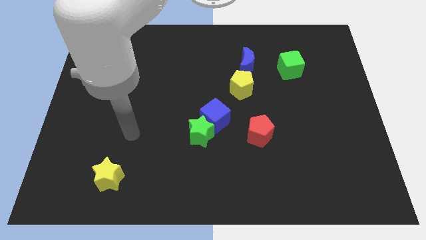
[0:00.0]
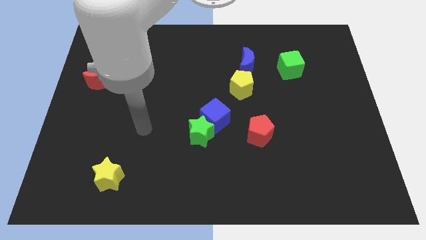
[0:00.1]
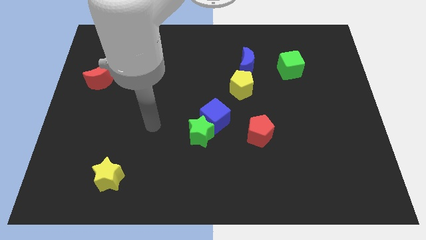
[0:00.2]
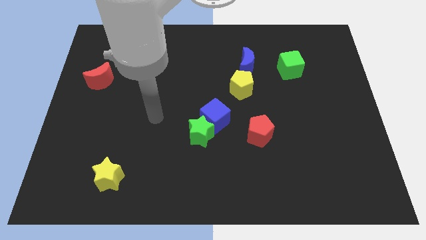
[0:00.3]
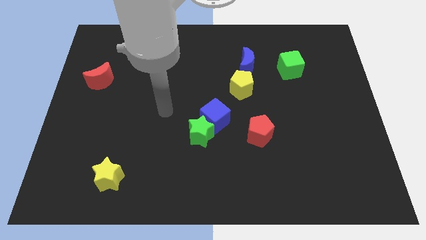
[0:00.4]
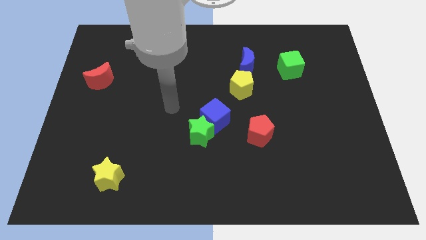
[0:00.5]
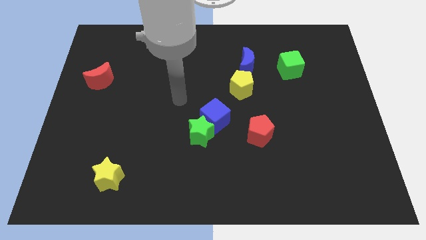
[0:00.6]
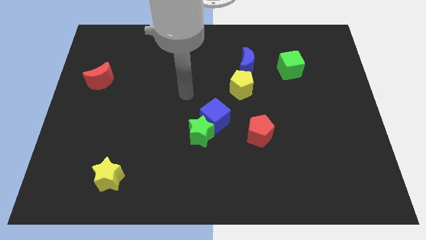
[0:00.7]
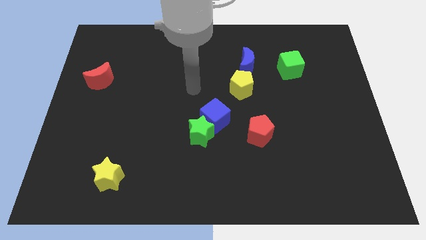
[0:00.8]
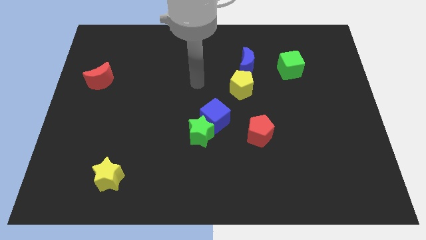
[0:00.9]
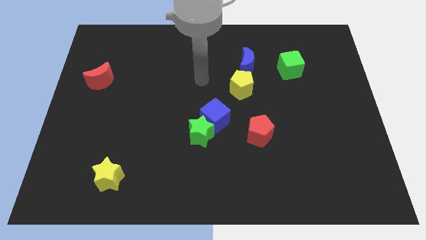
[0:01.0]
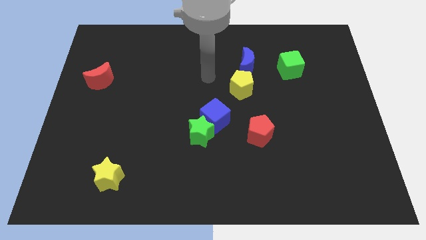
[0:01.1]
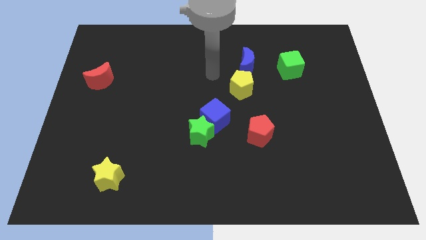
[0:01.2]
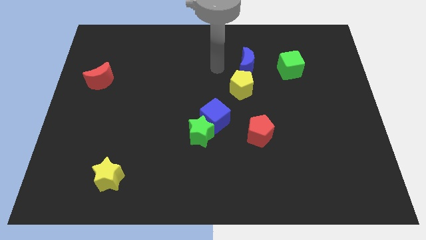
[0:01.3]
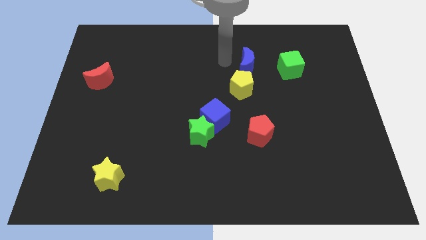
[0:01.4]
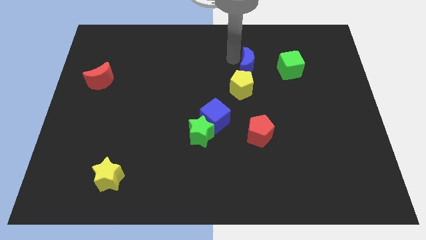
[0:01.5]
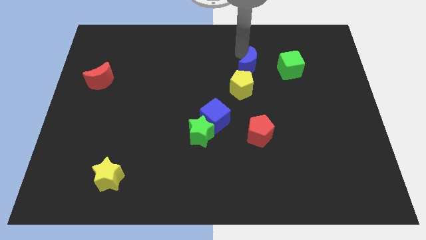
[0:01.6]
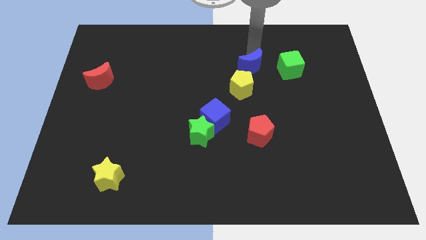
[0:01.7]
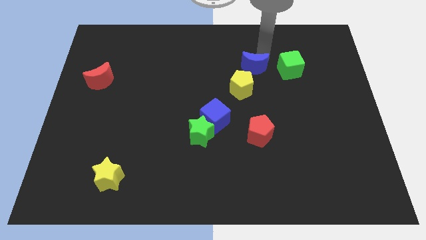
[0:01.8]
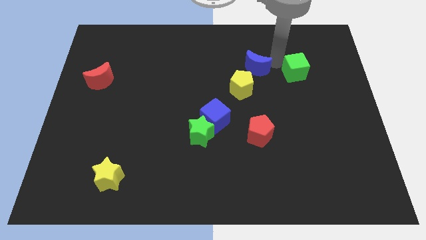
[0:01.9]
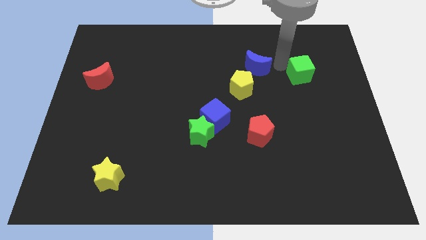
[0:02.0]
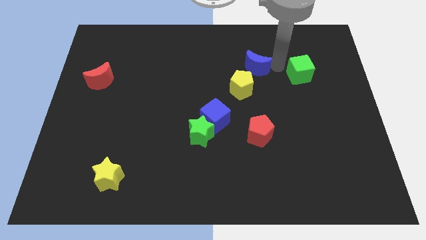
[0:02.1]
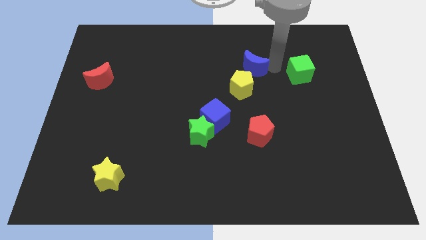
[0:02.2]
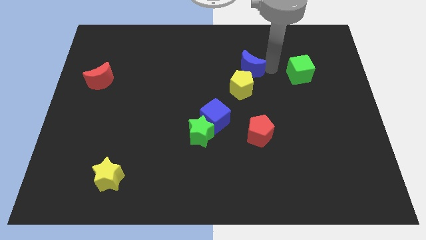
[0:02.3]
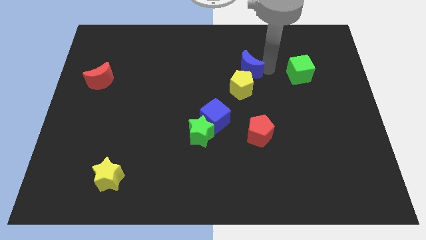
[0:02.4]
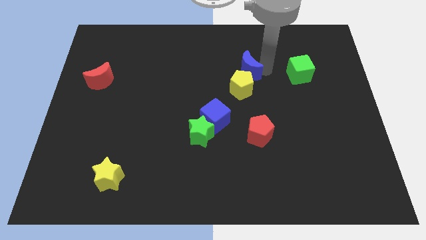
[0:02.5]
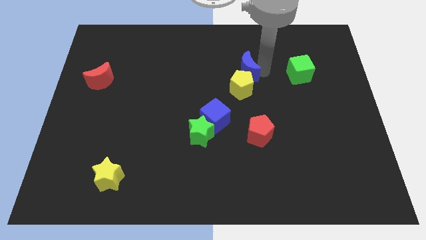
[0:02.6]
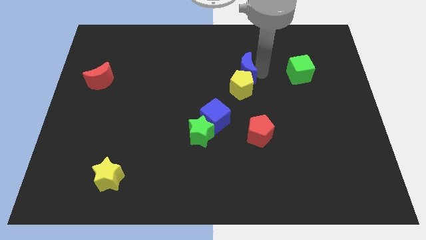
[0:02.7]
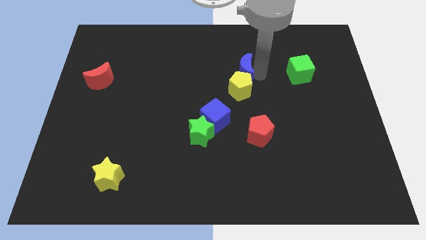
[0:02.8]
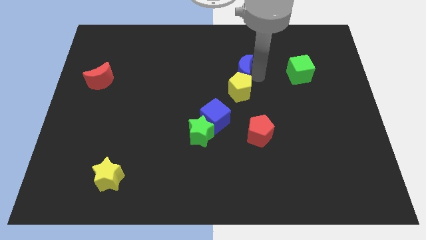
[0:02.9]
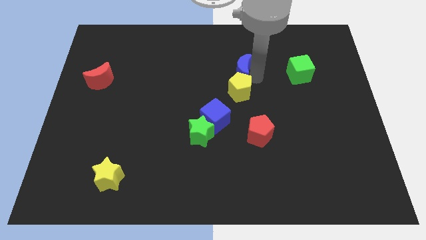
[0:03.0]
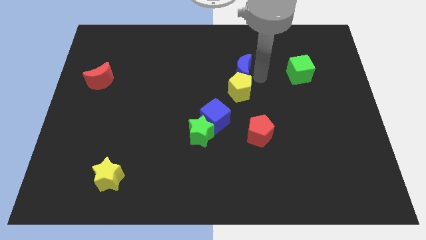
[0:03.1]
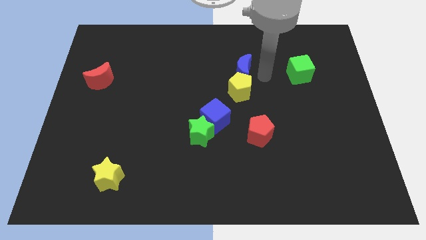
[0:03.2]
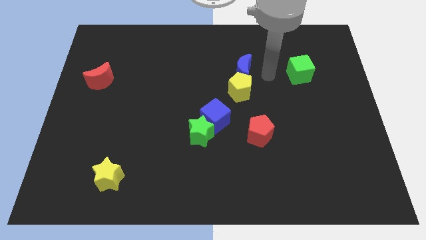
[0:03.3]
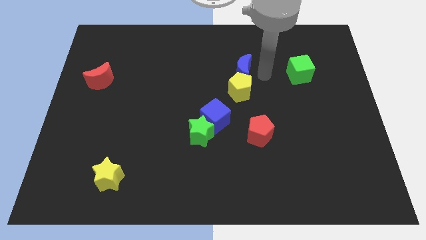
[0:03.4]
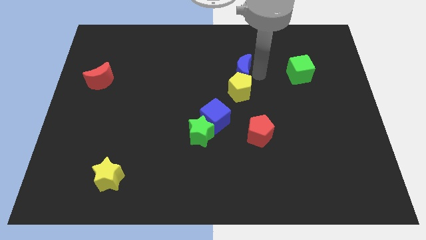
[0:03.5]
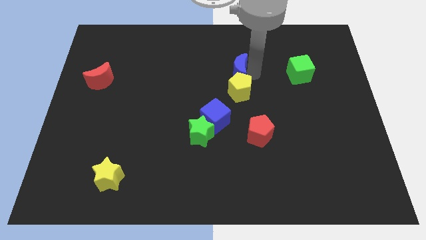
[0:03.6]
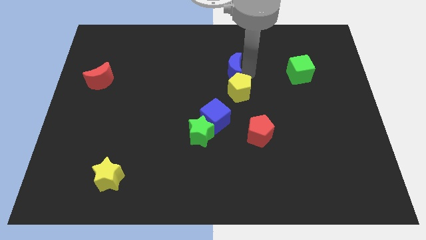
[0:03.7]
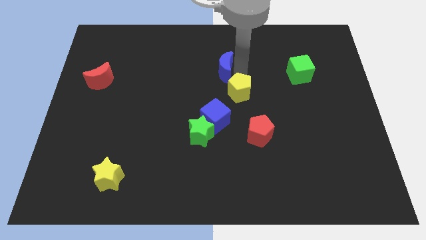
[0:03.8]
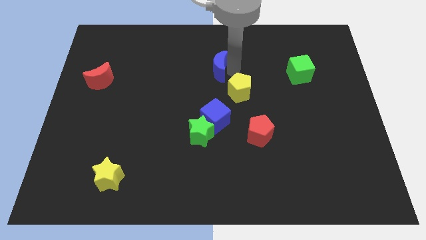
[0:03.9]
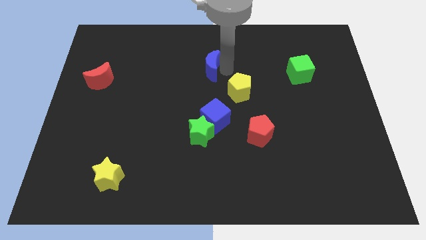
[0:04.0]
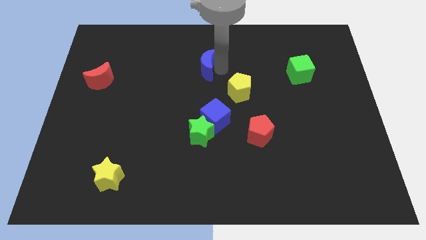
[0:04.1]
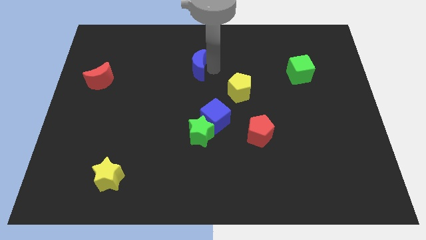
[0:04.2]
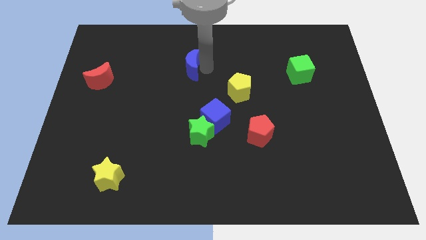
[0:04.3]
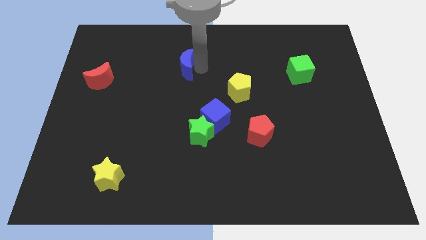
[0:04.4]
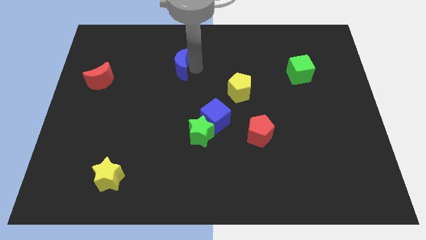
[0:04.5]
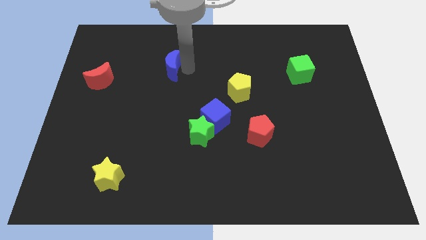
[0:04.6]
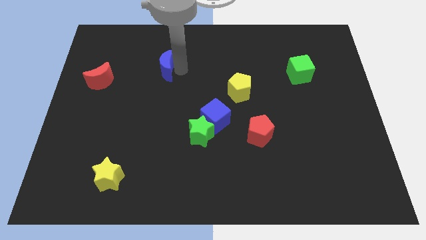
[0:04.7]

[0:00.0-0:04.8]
move the blue moon left

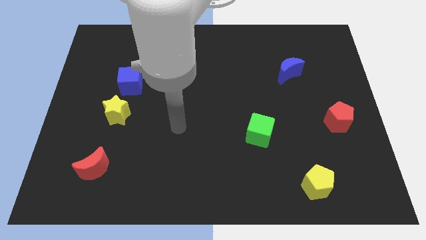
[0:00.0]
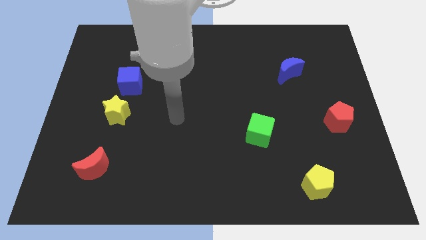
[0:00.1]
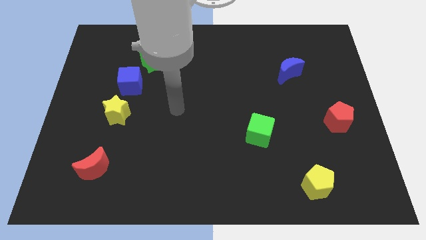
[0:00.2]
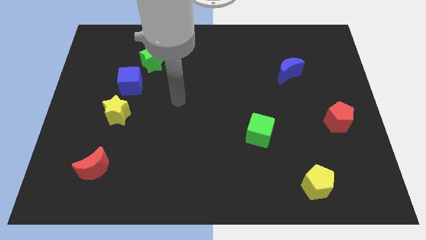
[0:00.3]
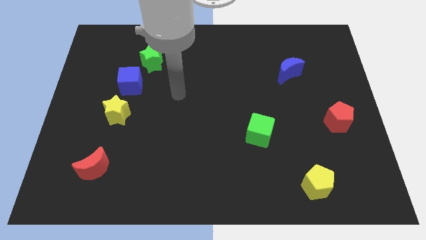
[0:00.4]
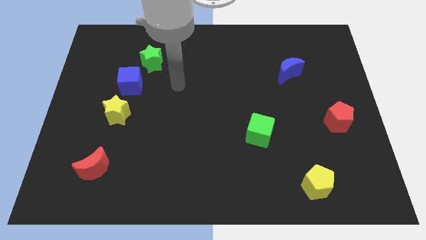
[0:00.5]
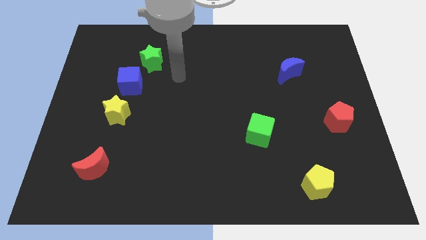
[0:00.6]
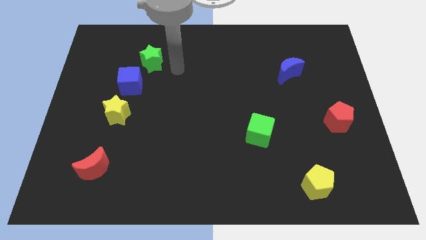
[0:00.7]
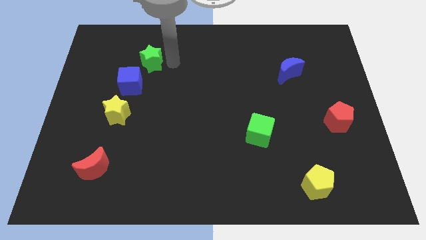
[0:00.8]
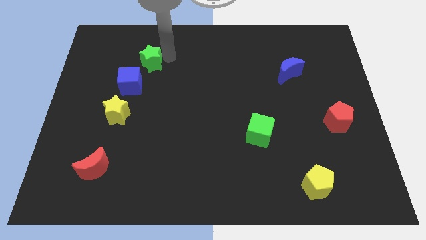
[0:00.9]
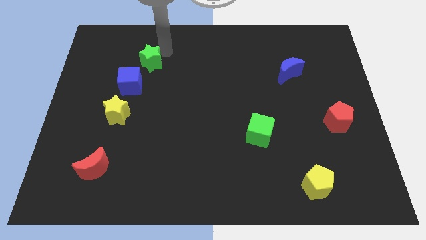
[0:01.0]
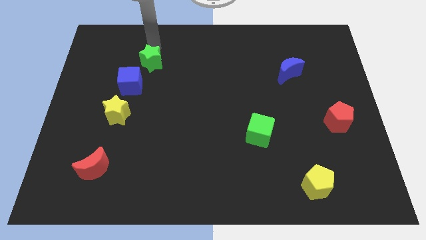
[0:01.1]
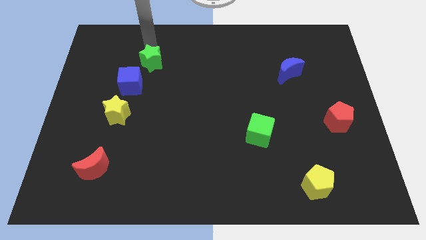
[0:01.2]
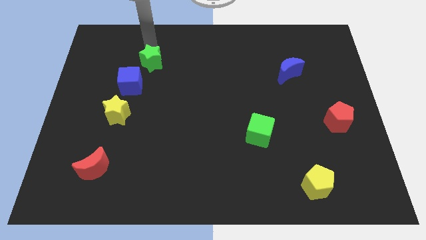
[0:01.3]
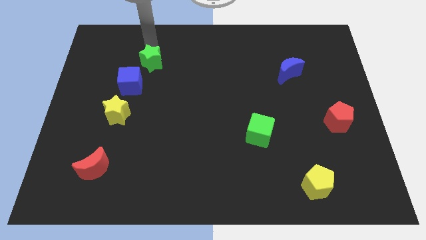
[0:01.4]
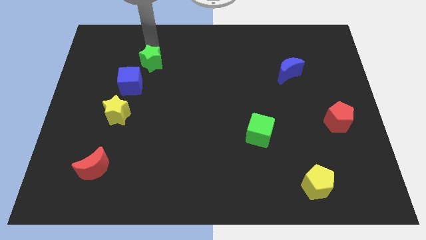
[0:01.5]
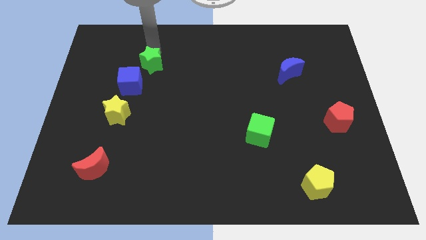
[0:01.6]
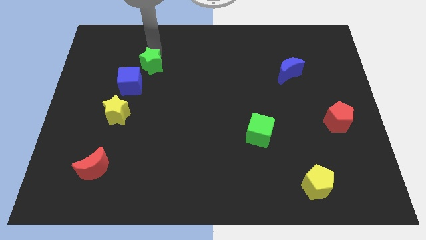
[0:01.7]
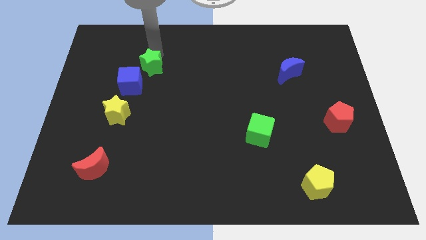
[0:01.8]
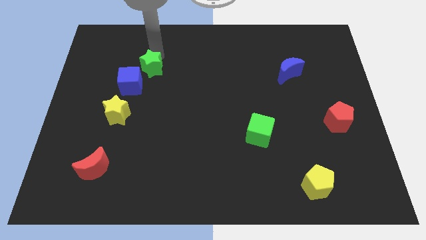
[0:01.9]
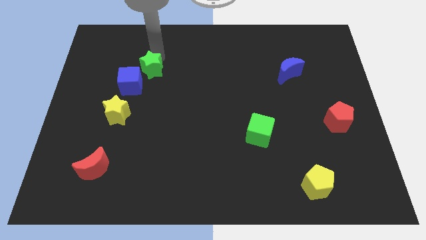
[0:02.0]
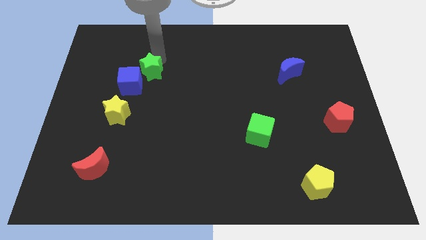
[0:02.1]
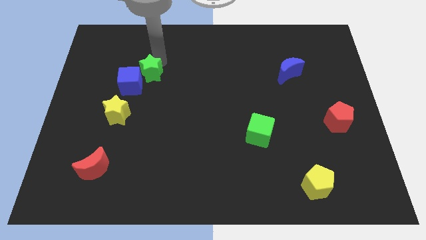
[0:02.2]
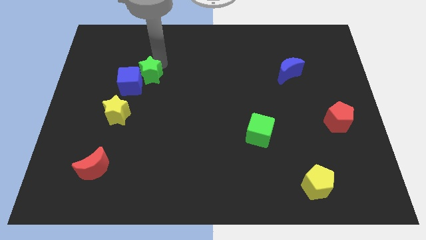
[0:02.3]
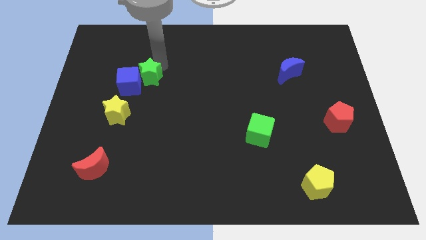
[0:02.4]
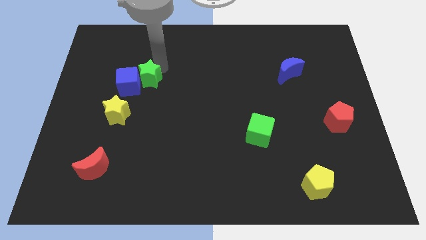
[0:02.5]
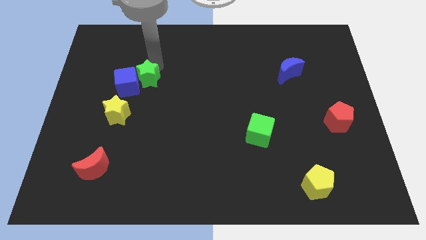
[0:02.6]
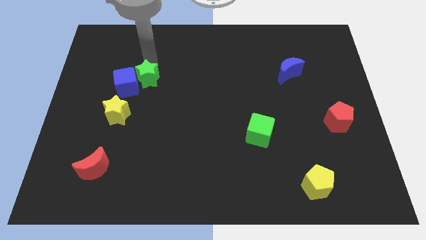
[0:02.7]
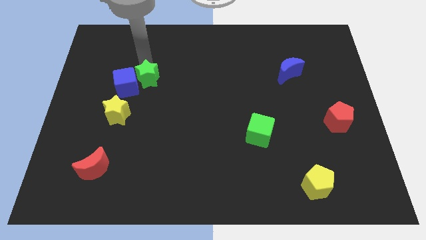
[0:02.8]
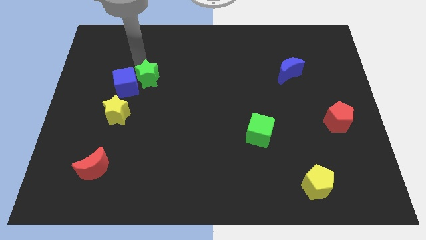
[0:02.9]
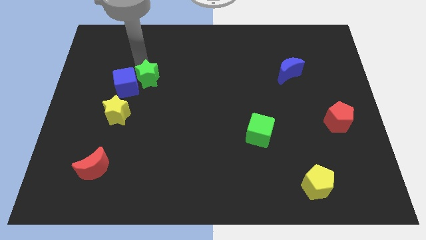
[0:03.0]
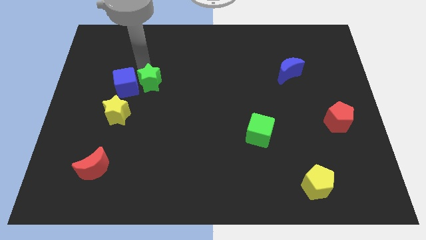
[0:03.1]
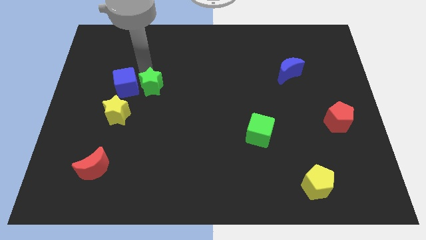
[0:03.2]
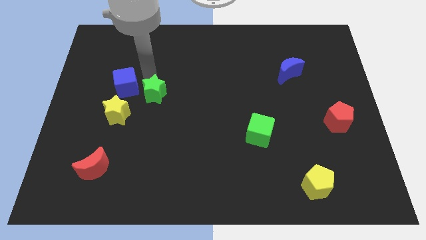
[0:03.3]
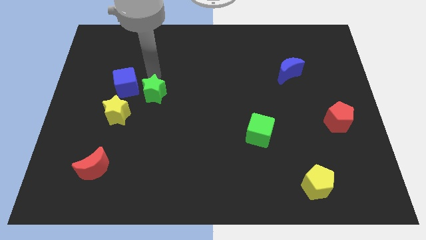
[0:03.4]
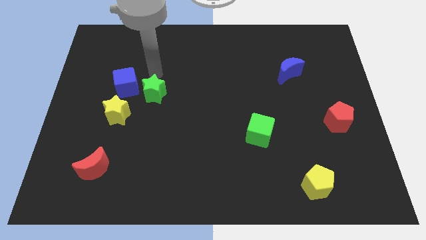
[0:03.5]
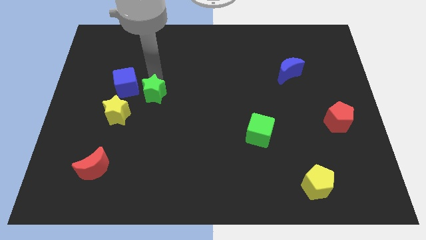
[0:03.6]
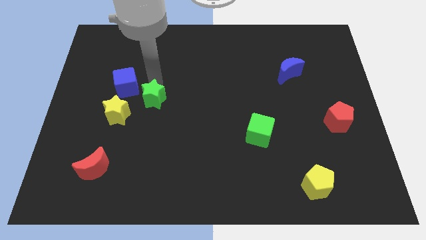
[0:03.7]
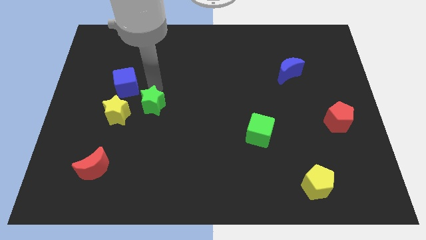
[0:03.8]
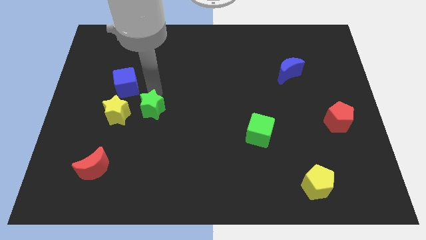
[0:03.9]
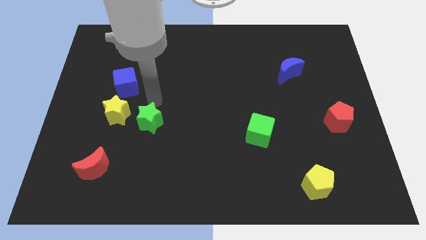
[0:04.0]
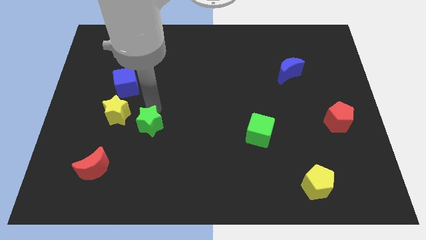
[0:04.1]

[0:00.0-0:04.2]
push the green star down
